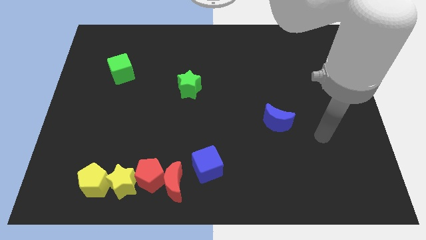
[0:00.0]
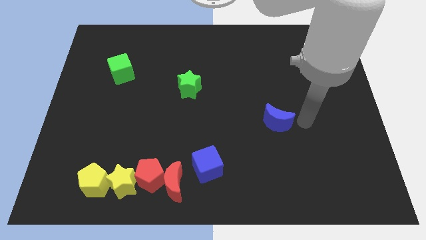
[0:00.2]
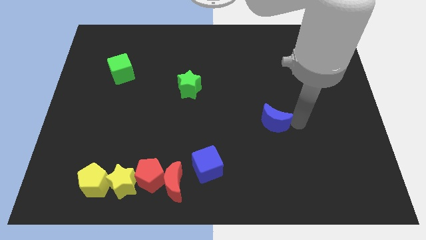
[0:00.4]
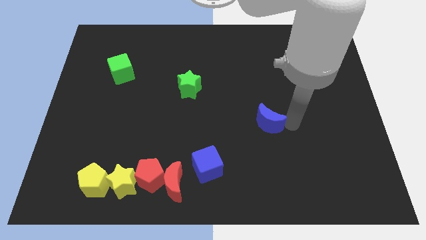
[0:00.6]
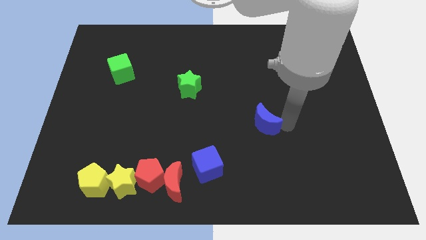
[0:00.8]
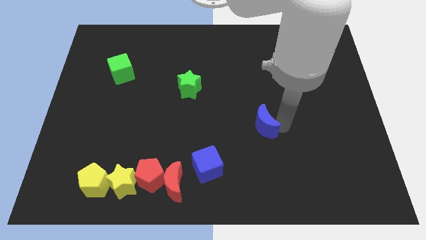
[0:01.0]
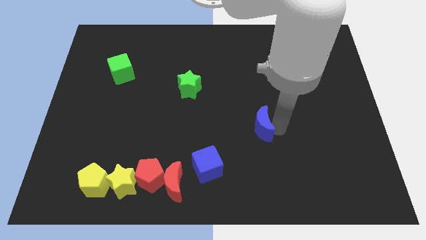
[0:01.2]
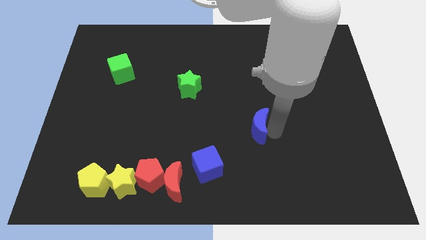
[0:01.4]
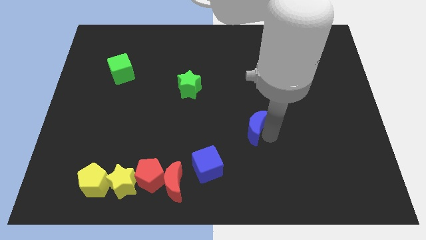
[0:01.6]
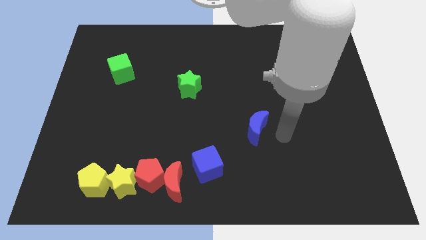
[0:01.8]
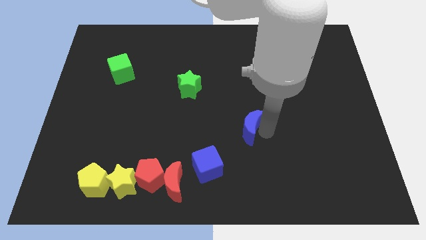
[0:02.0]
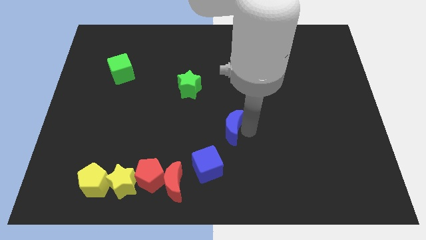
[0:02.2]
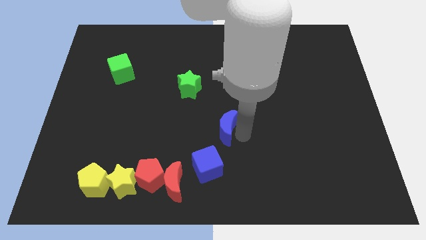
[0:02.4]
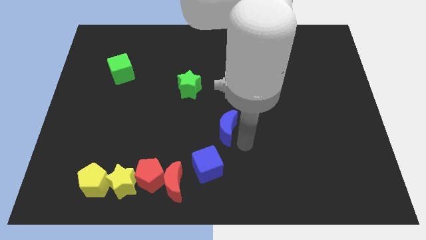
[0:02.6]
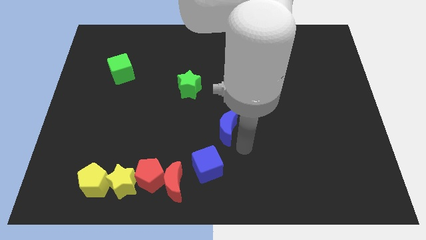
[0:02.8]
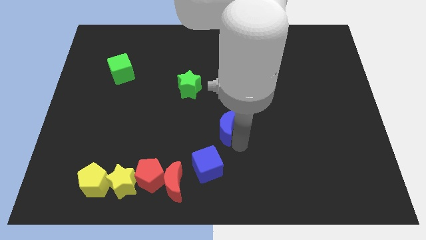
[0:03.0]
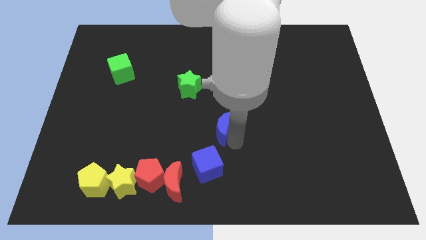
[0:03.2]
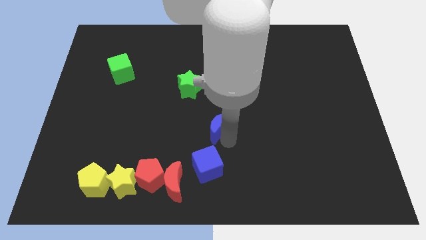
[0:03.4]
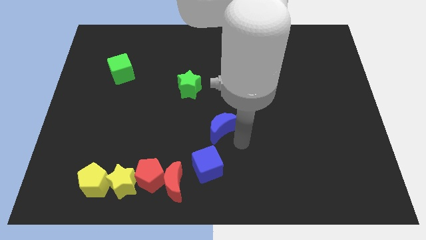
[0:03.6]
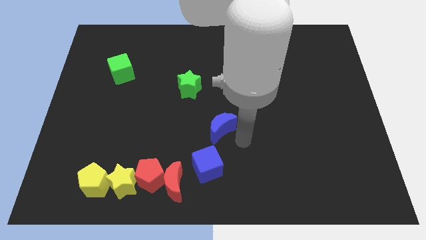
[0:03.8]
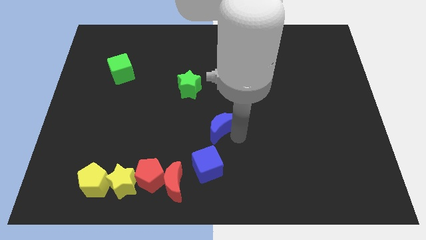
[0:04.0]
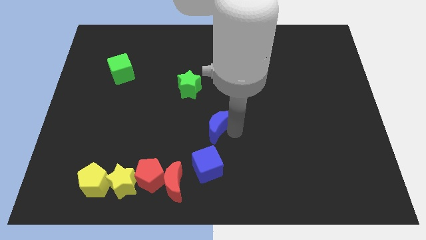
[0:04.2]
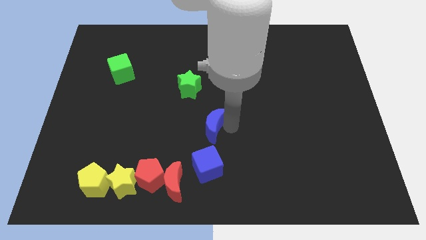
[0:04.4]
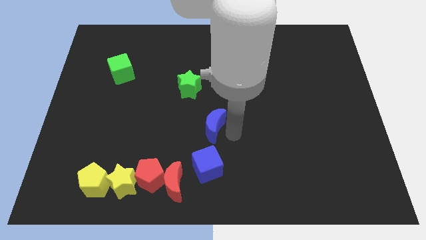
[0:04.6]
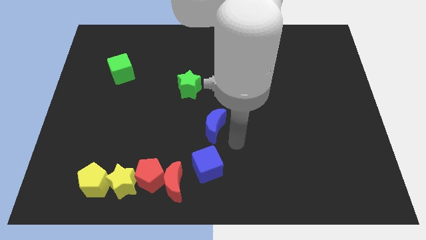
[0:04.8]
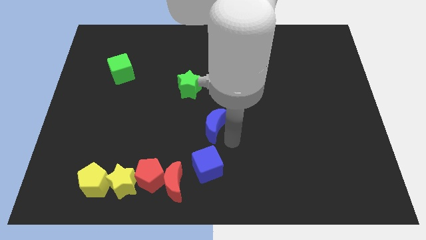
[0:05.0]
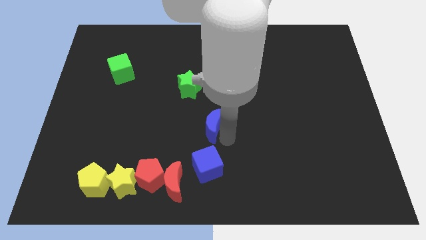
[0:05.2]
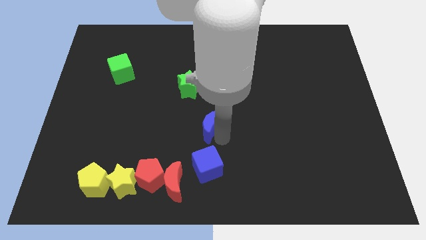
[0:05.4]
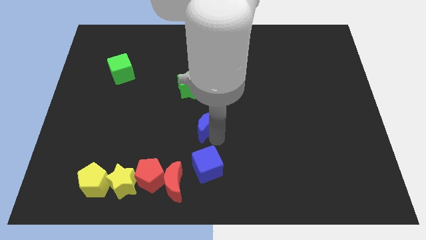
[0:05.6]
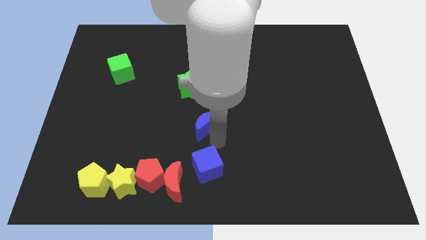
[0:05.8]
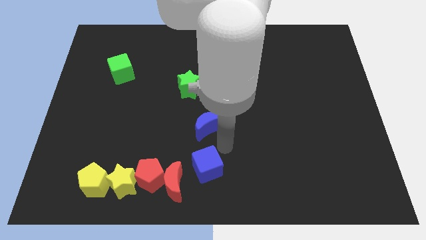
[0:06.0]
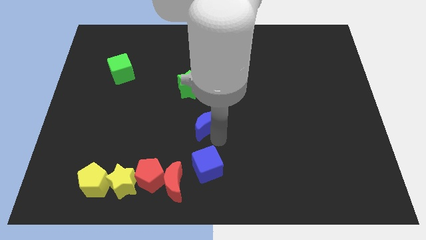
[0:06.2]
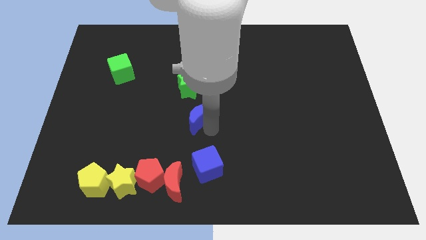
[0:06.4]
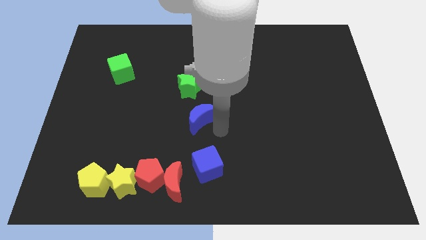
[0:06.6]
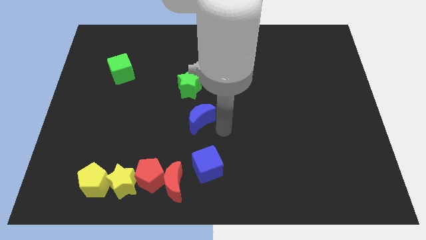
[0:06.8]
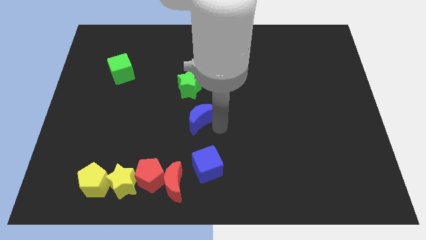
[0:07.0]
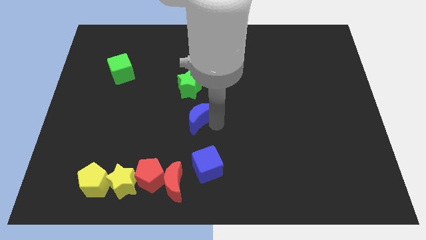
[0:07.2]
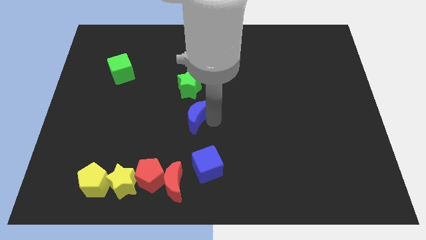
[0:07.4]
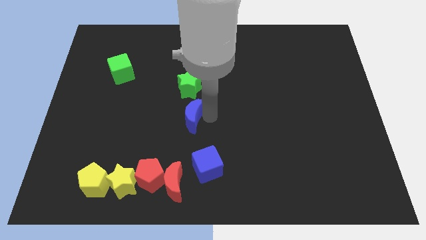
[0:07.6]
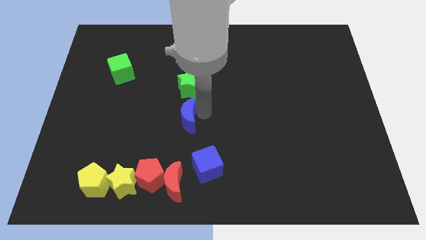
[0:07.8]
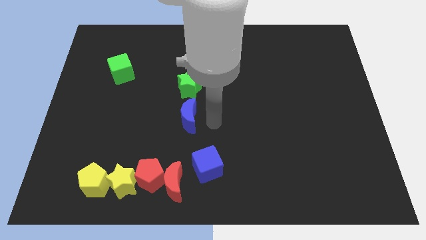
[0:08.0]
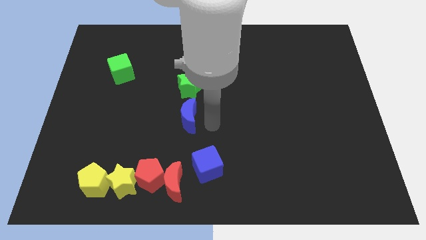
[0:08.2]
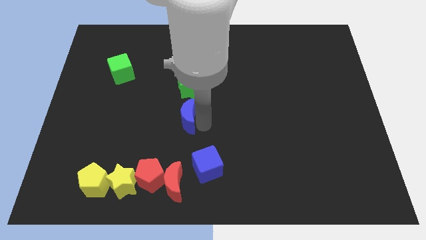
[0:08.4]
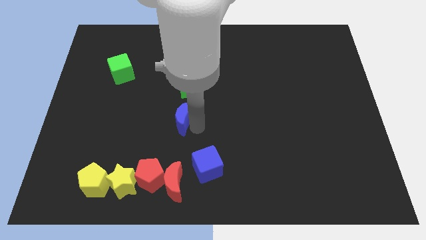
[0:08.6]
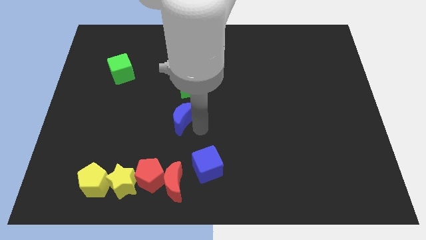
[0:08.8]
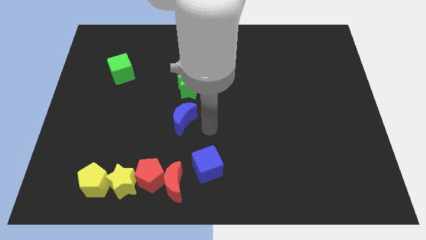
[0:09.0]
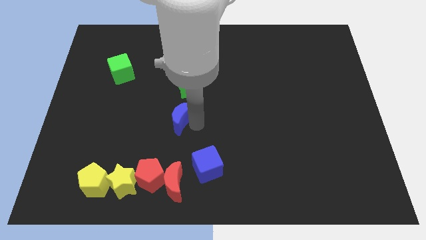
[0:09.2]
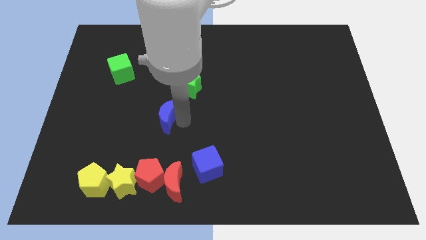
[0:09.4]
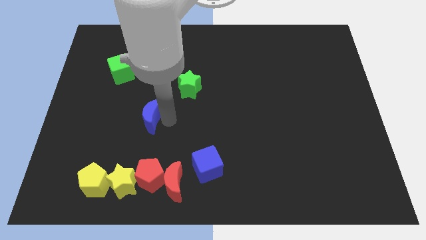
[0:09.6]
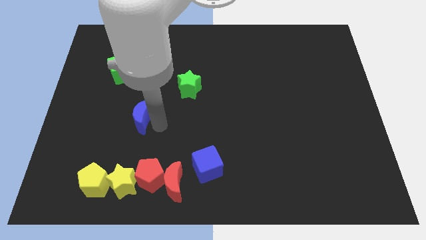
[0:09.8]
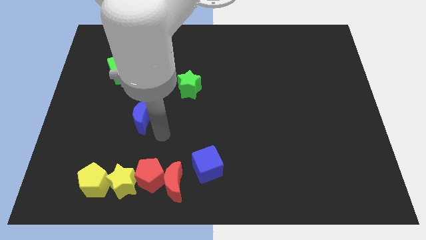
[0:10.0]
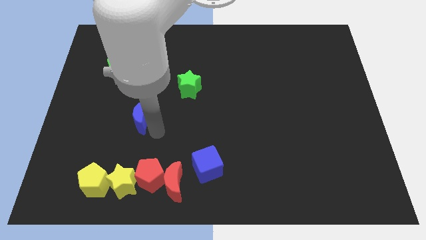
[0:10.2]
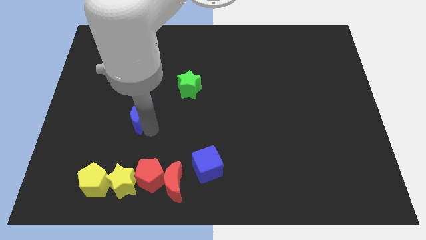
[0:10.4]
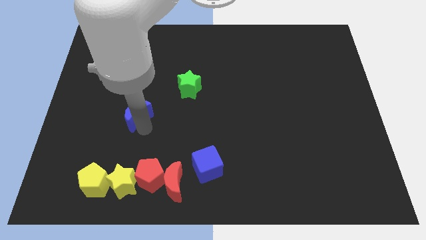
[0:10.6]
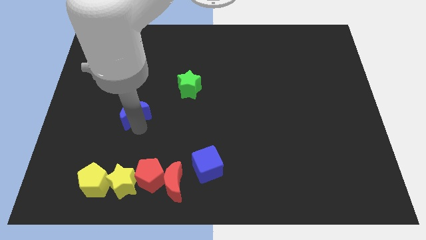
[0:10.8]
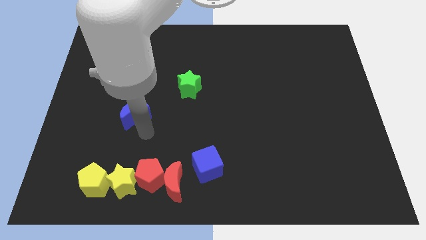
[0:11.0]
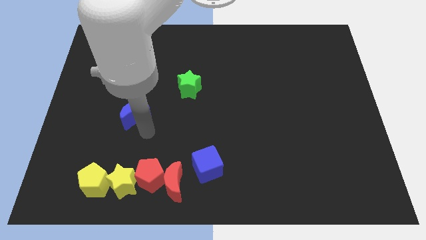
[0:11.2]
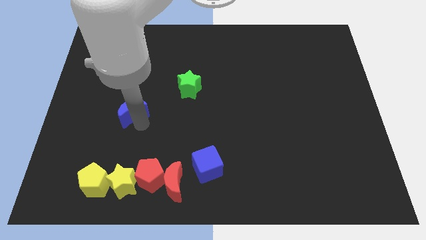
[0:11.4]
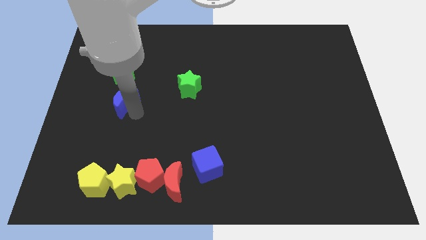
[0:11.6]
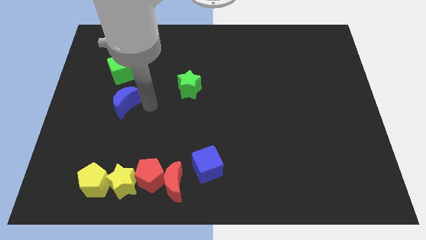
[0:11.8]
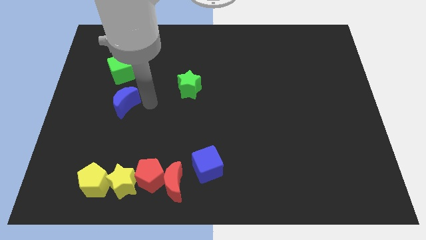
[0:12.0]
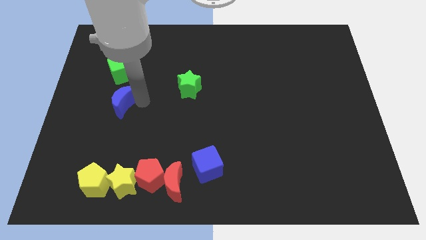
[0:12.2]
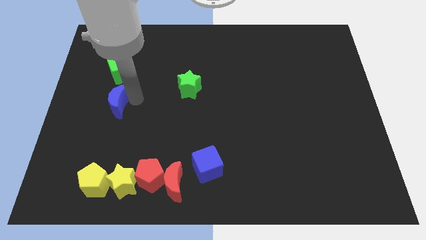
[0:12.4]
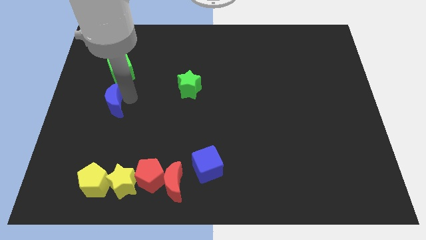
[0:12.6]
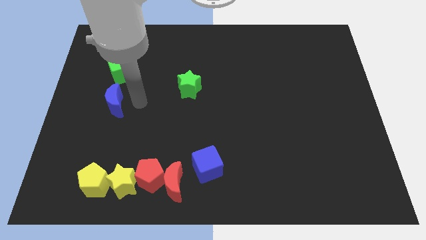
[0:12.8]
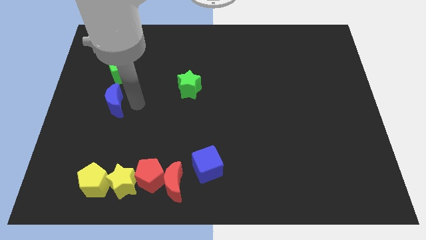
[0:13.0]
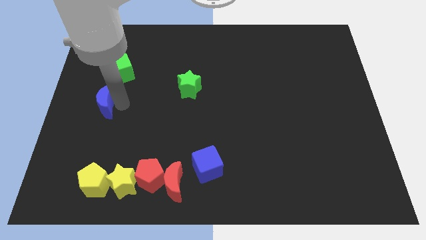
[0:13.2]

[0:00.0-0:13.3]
put the blue moon to the left side of the board

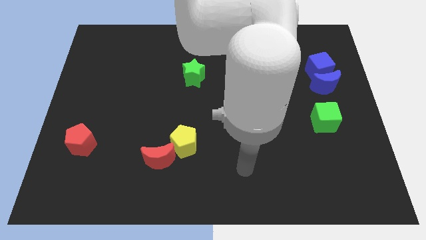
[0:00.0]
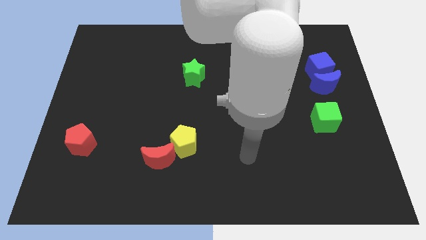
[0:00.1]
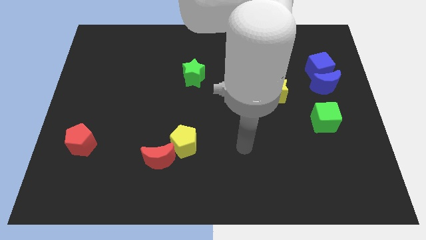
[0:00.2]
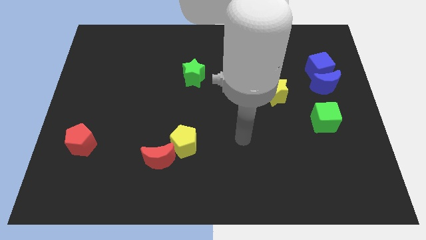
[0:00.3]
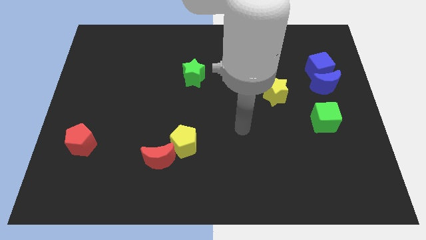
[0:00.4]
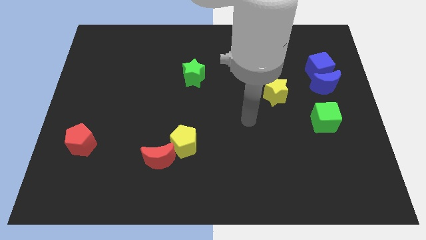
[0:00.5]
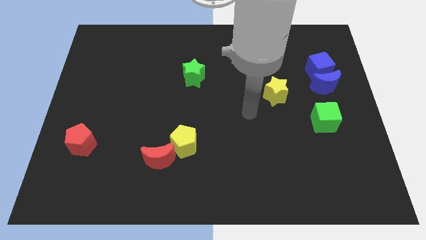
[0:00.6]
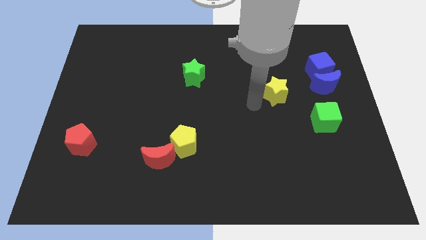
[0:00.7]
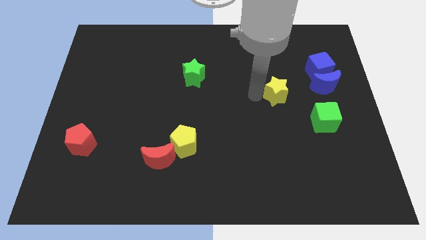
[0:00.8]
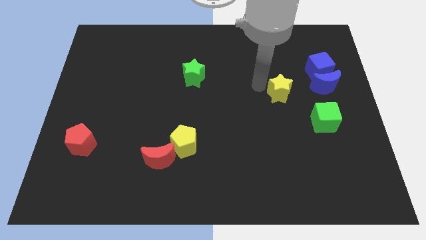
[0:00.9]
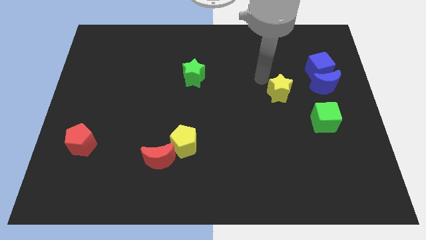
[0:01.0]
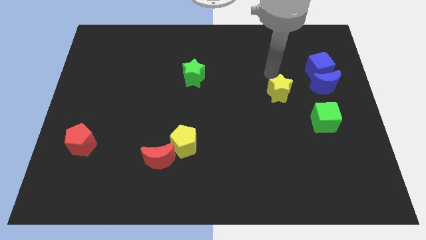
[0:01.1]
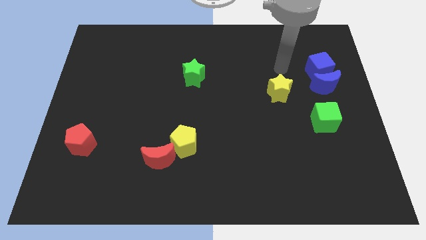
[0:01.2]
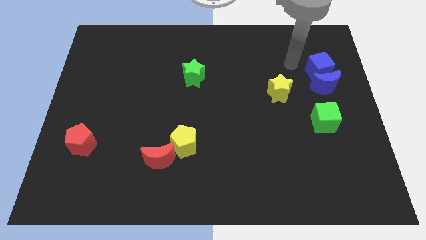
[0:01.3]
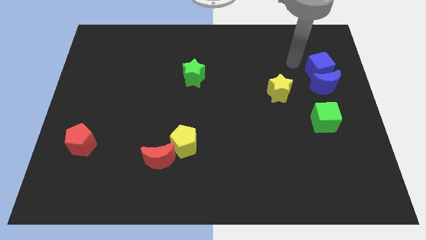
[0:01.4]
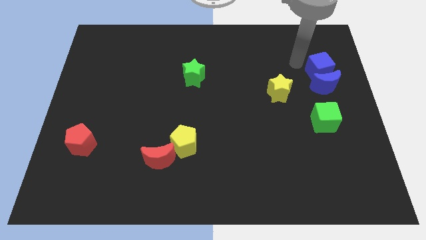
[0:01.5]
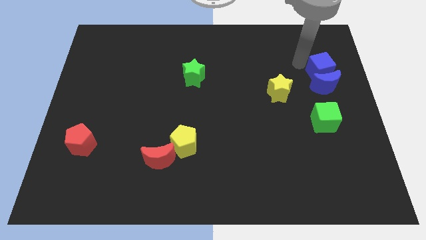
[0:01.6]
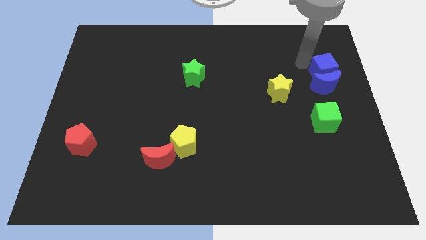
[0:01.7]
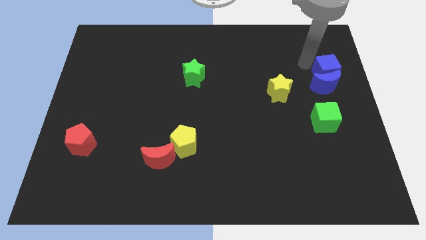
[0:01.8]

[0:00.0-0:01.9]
push the blue cube to the right side of the board
